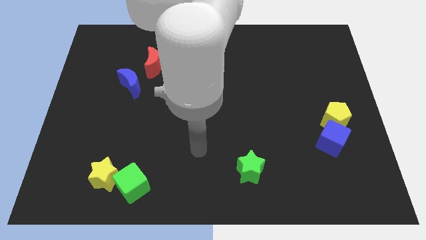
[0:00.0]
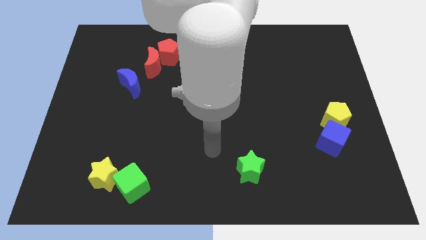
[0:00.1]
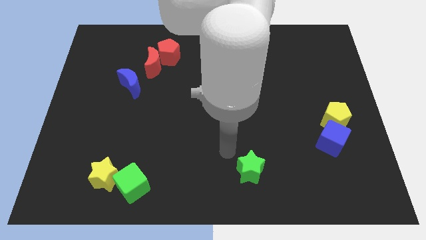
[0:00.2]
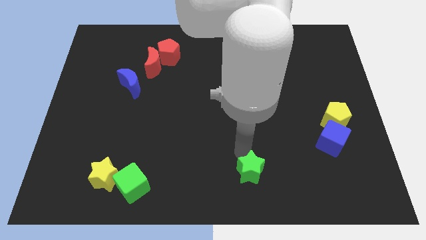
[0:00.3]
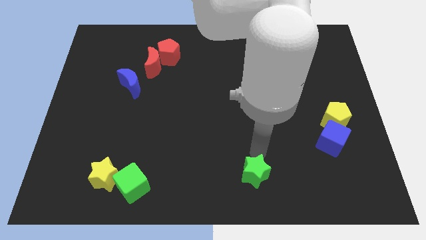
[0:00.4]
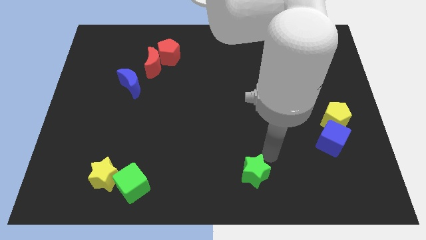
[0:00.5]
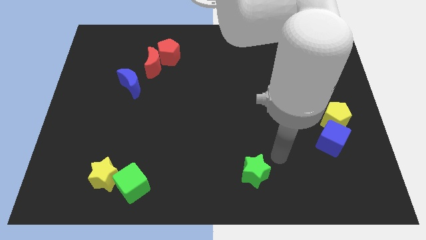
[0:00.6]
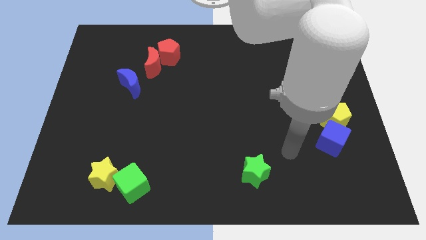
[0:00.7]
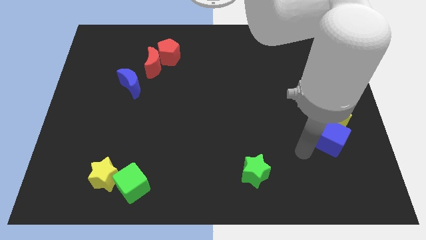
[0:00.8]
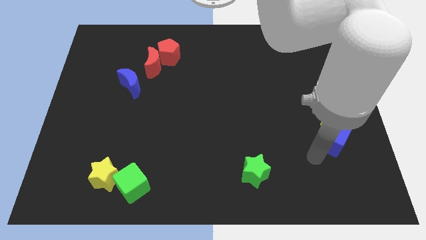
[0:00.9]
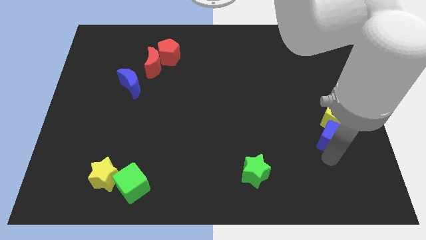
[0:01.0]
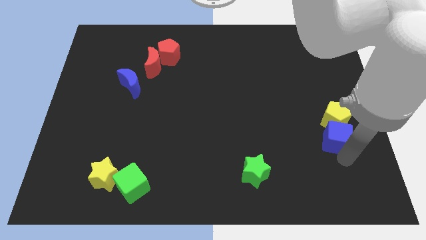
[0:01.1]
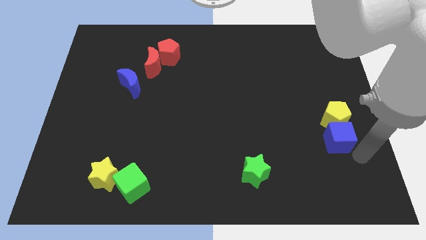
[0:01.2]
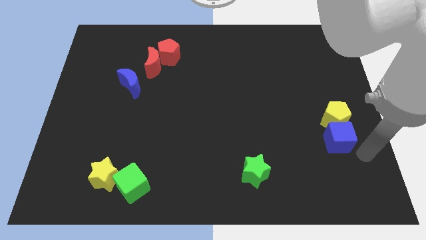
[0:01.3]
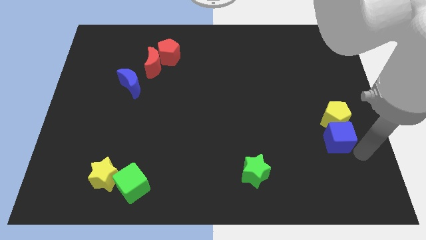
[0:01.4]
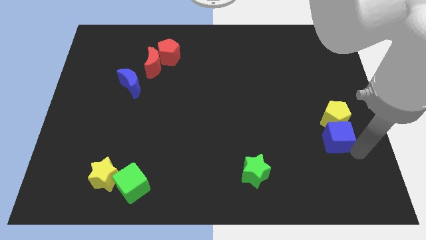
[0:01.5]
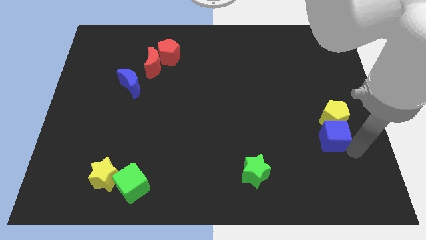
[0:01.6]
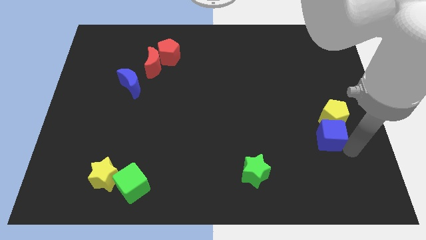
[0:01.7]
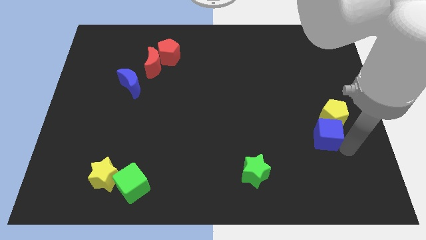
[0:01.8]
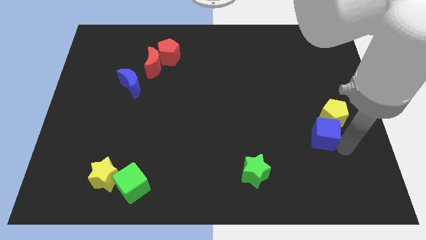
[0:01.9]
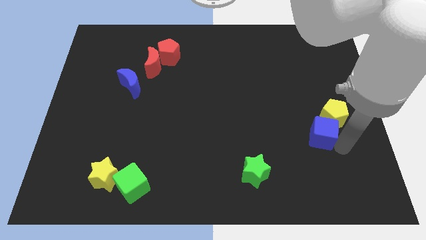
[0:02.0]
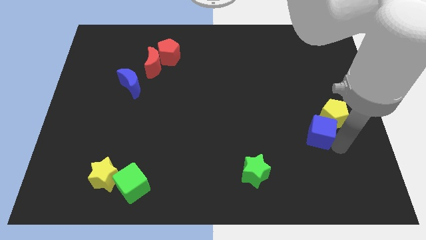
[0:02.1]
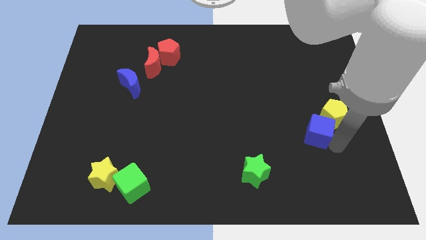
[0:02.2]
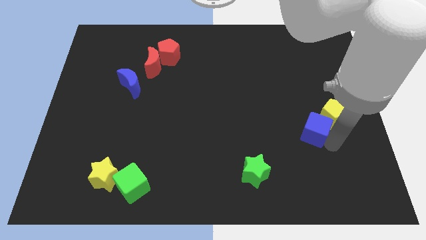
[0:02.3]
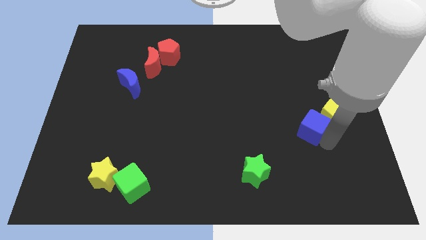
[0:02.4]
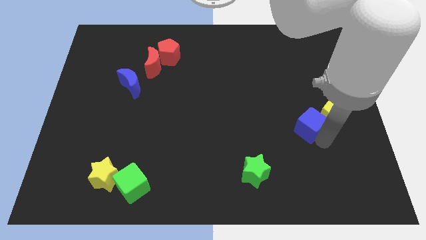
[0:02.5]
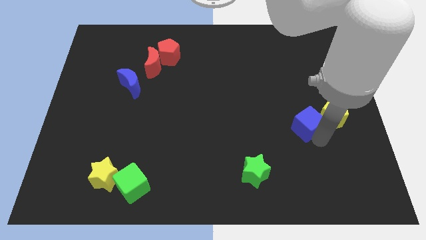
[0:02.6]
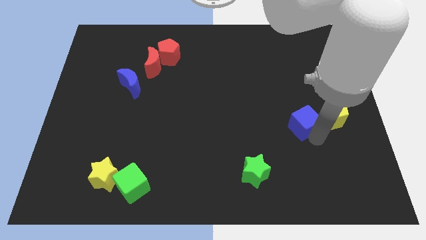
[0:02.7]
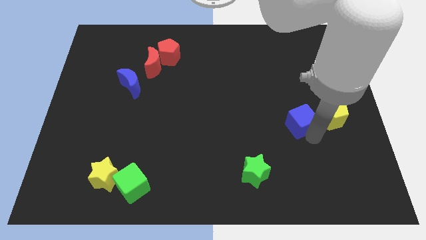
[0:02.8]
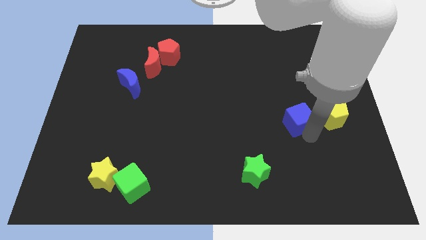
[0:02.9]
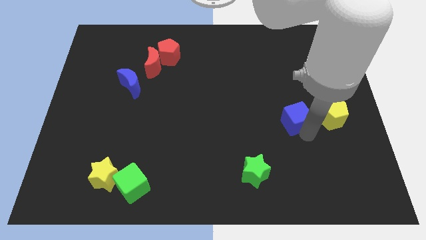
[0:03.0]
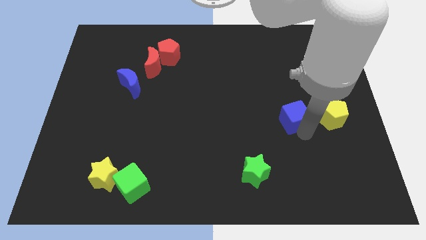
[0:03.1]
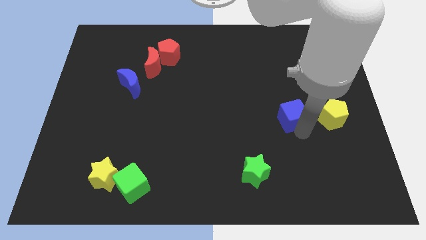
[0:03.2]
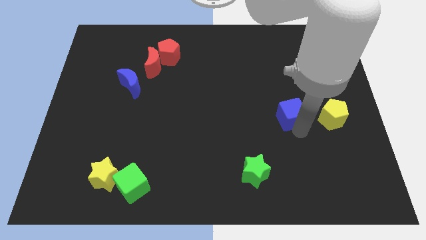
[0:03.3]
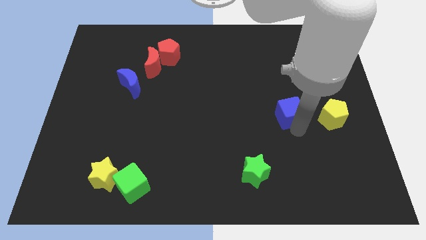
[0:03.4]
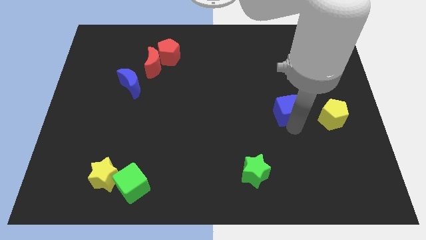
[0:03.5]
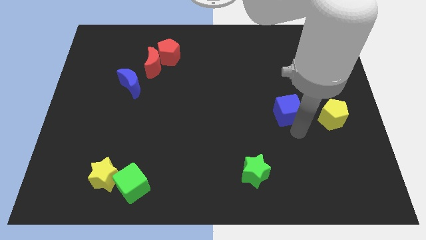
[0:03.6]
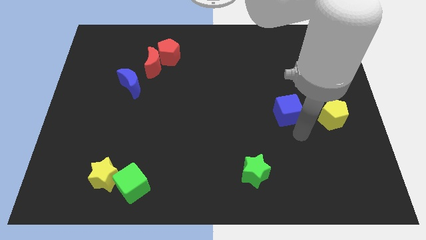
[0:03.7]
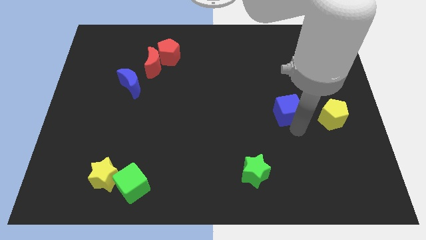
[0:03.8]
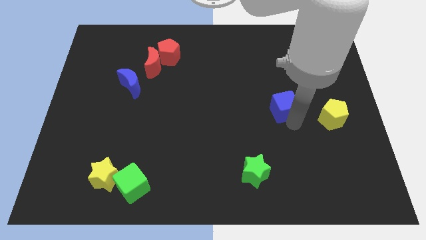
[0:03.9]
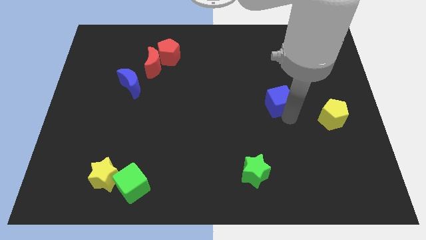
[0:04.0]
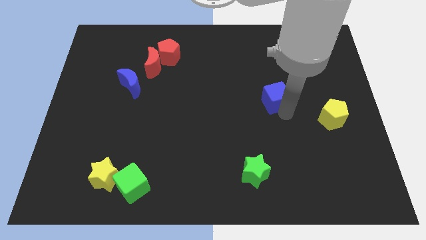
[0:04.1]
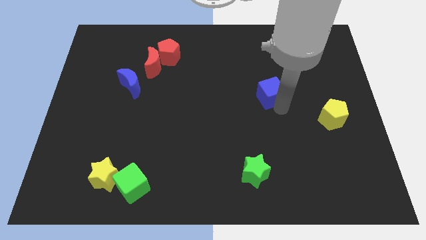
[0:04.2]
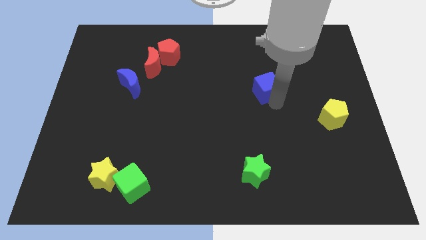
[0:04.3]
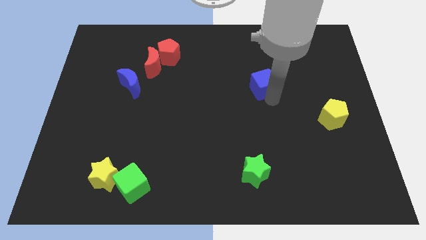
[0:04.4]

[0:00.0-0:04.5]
slide the blue cube upwards and then left

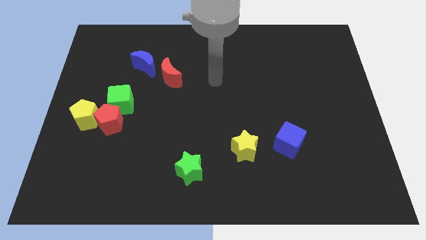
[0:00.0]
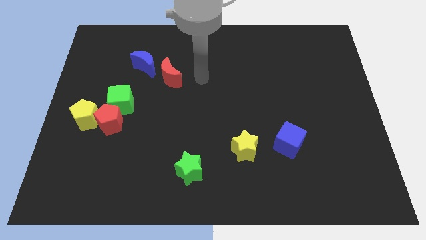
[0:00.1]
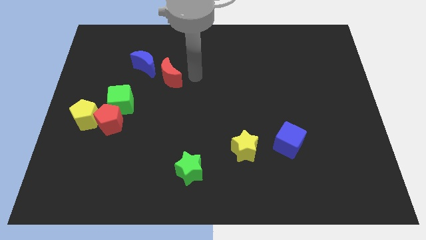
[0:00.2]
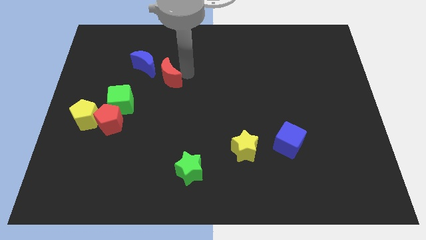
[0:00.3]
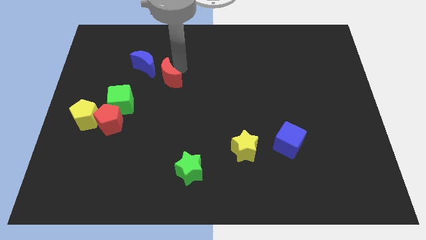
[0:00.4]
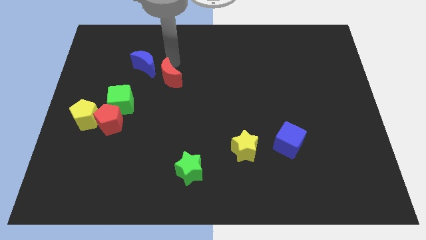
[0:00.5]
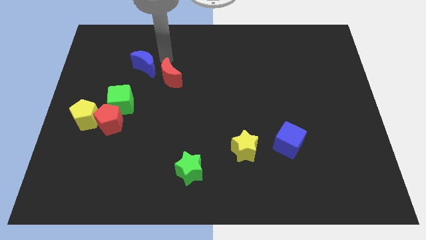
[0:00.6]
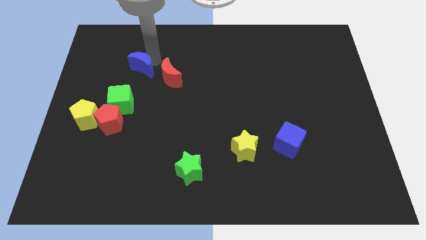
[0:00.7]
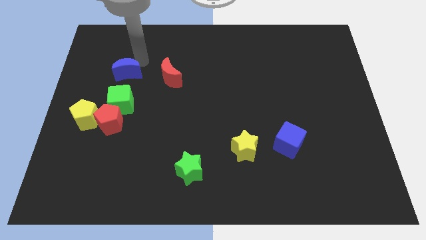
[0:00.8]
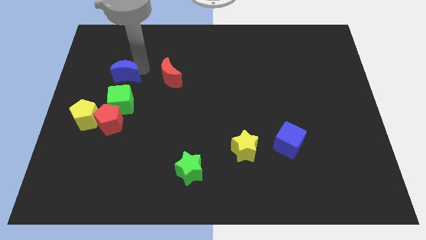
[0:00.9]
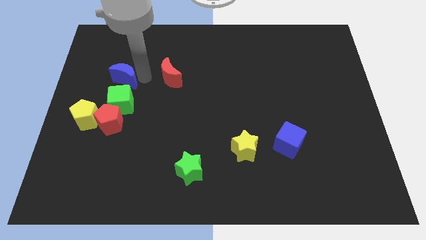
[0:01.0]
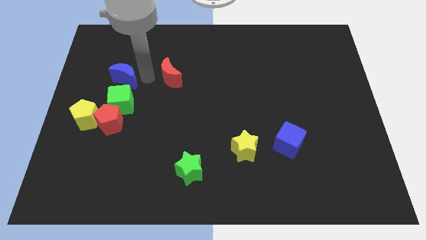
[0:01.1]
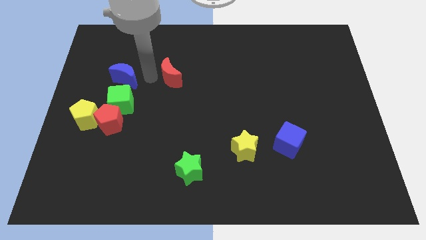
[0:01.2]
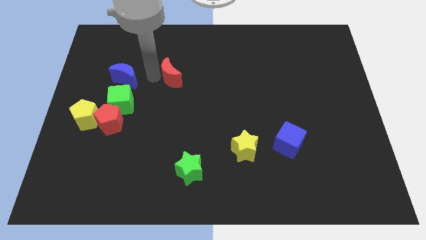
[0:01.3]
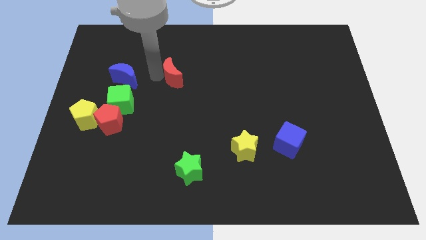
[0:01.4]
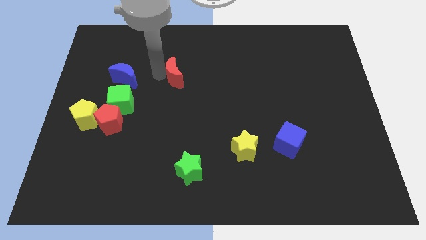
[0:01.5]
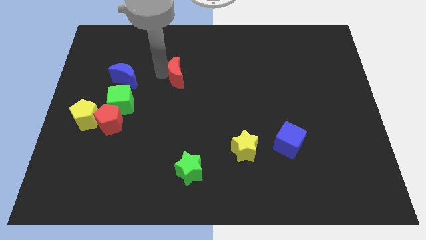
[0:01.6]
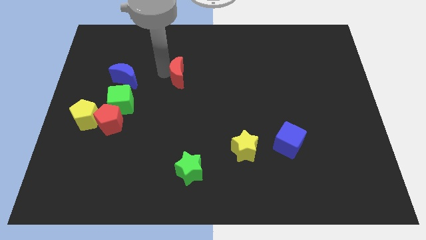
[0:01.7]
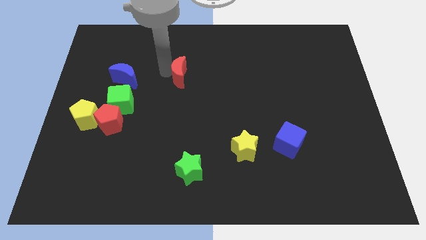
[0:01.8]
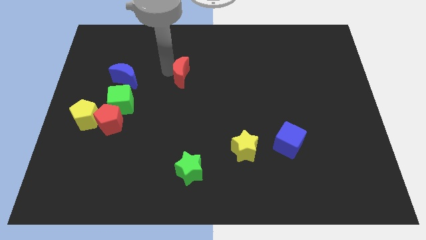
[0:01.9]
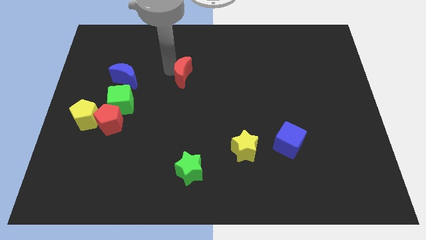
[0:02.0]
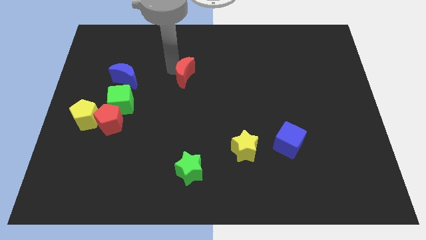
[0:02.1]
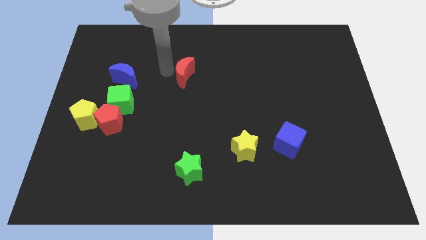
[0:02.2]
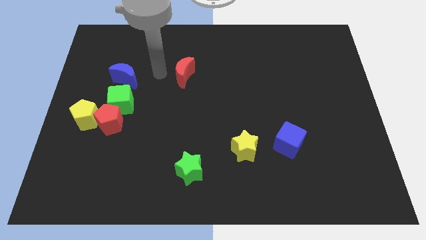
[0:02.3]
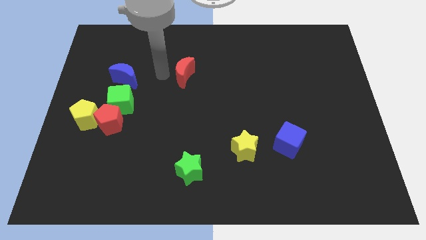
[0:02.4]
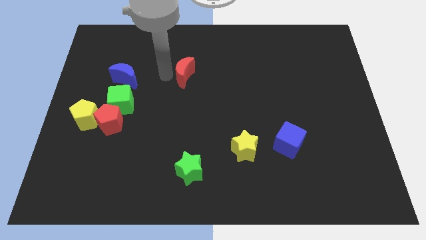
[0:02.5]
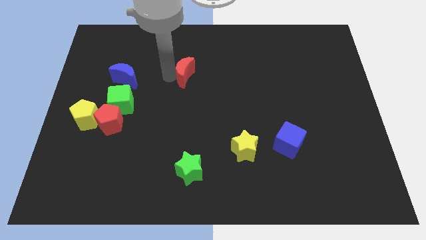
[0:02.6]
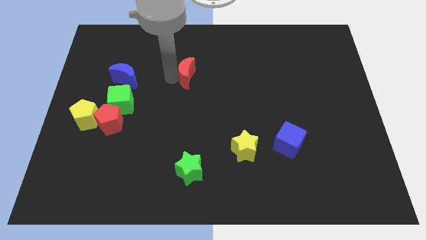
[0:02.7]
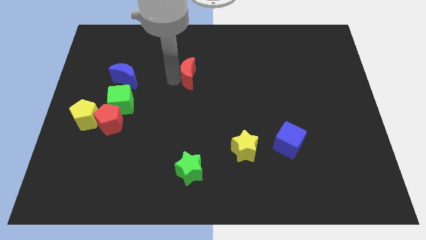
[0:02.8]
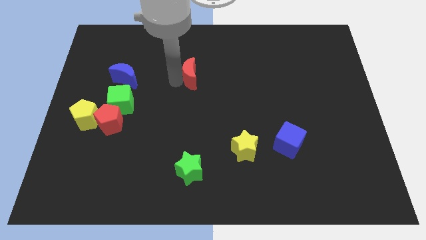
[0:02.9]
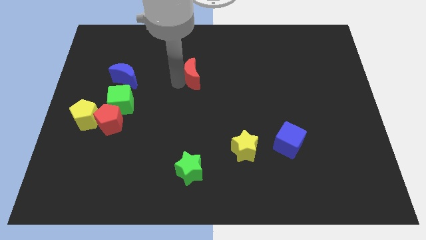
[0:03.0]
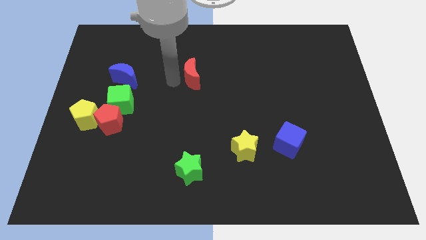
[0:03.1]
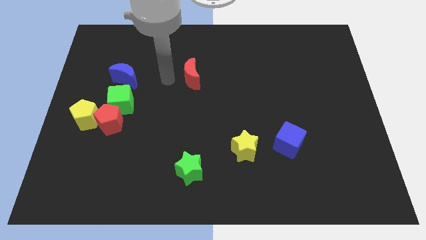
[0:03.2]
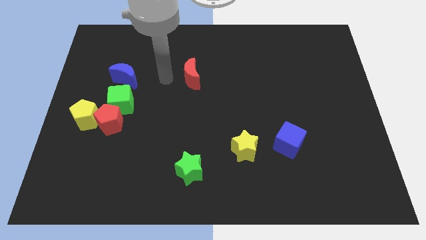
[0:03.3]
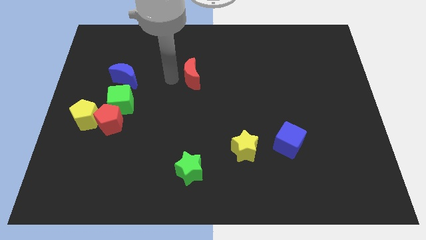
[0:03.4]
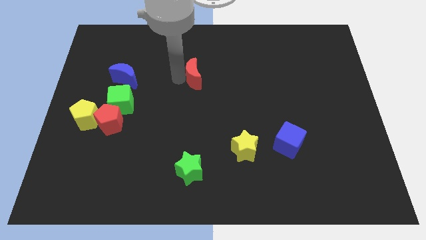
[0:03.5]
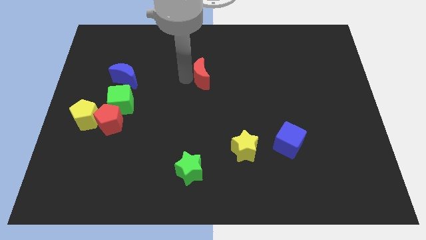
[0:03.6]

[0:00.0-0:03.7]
slightly move the red moon right
